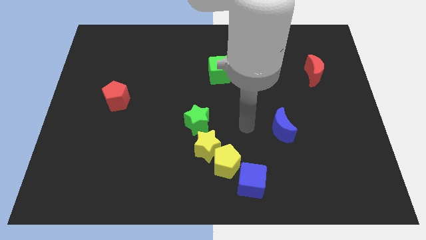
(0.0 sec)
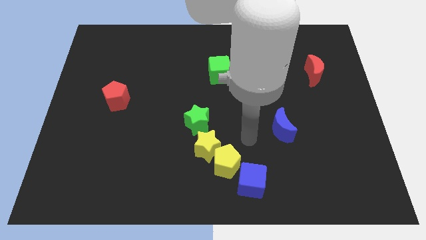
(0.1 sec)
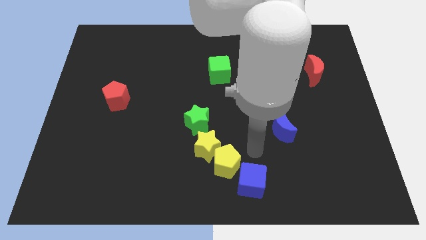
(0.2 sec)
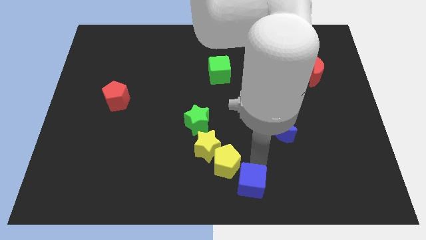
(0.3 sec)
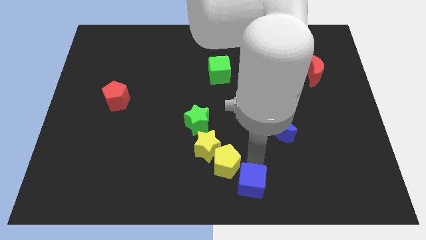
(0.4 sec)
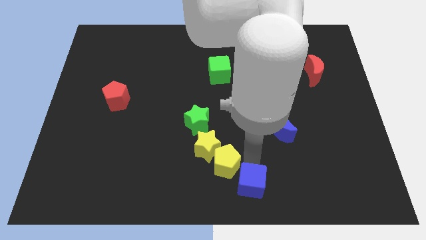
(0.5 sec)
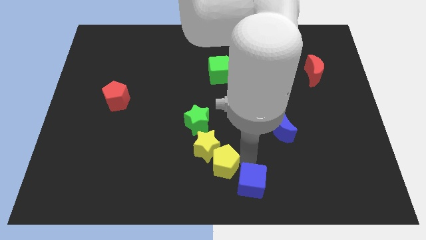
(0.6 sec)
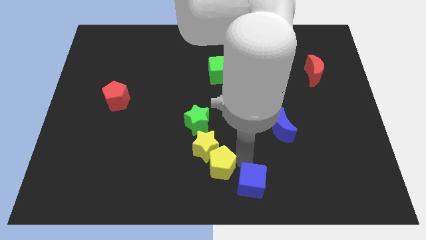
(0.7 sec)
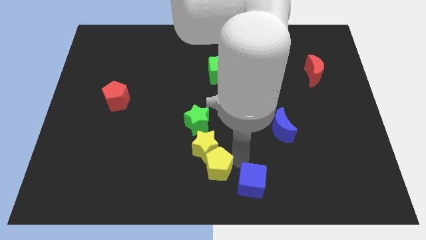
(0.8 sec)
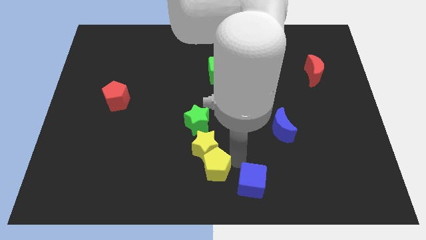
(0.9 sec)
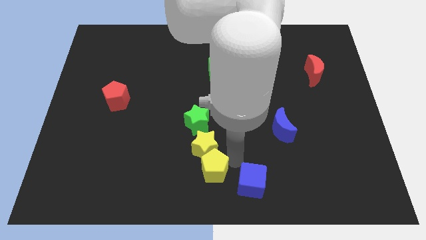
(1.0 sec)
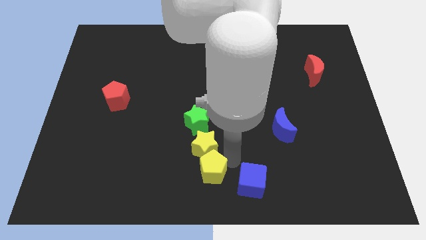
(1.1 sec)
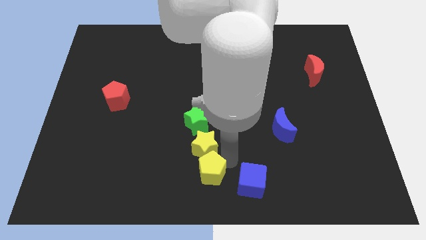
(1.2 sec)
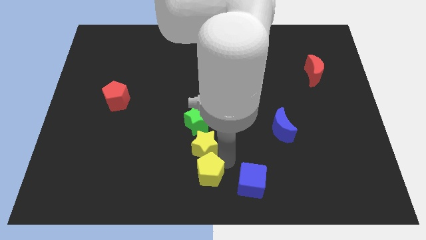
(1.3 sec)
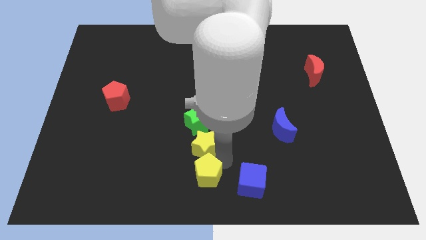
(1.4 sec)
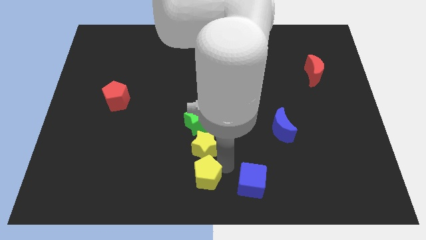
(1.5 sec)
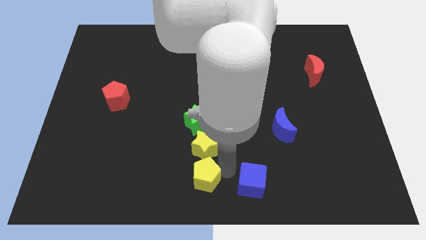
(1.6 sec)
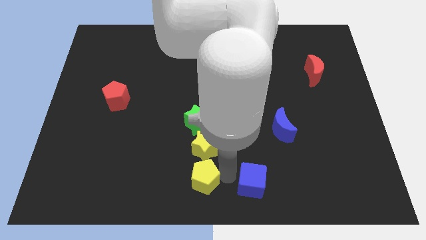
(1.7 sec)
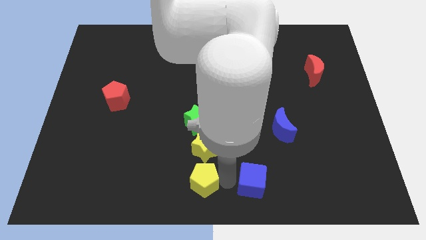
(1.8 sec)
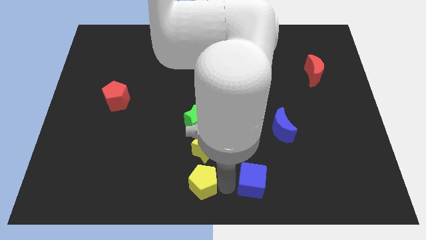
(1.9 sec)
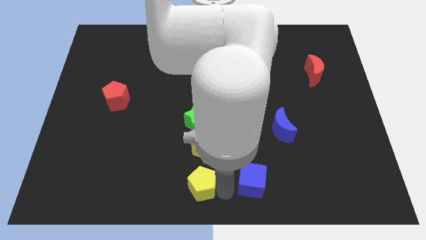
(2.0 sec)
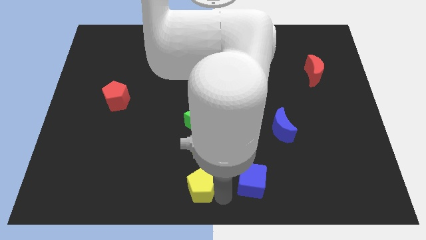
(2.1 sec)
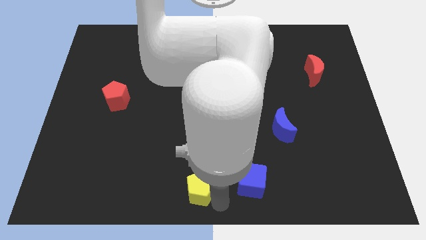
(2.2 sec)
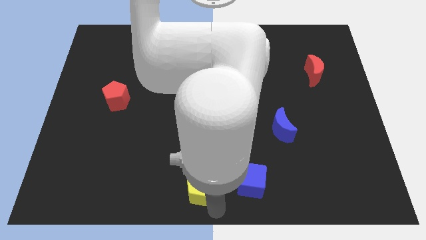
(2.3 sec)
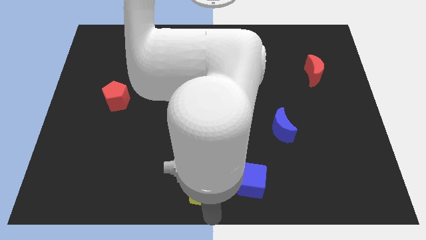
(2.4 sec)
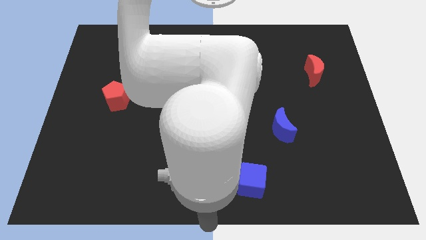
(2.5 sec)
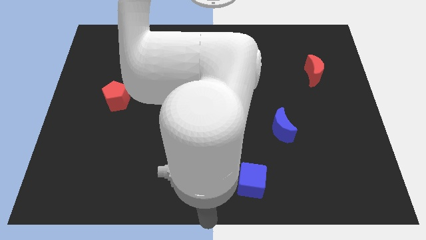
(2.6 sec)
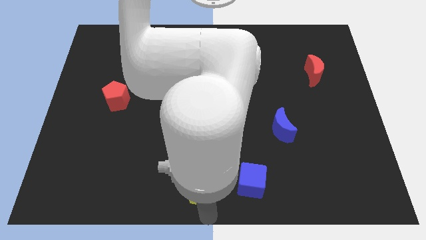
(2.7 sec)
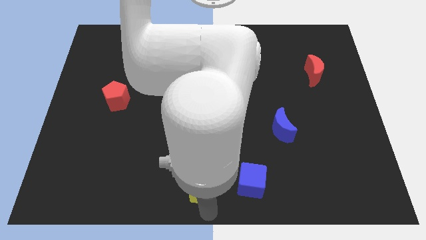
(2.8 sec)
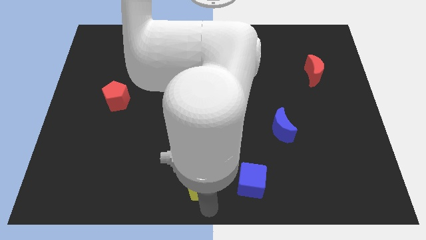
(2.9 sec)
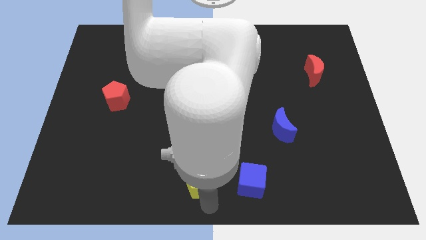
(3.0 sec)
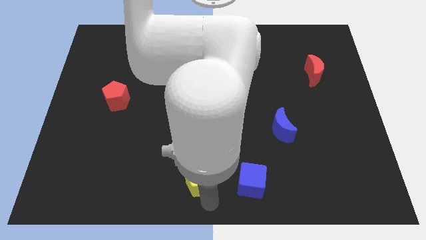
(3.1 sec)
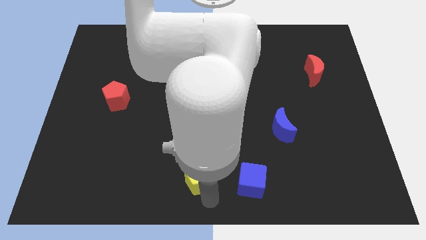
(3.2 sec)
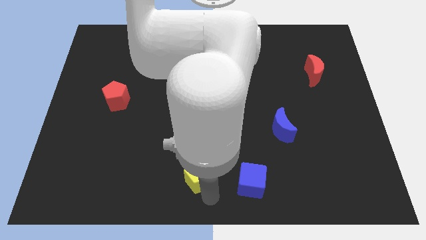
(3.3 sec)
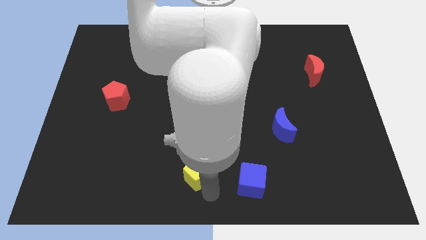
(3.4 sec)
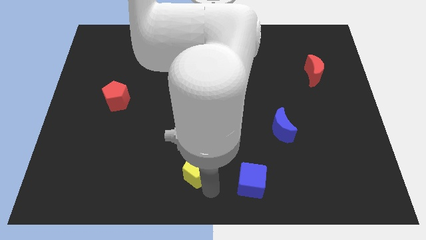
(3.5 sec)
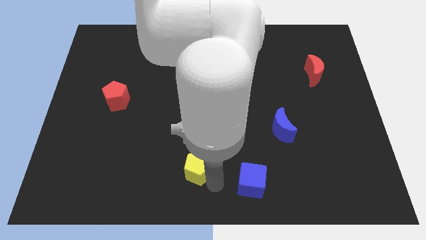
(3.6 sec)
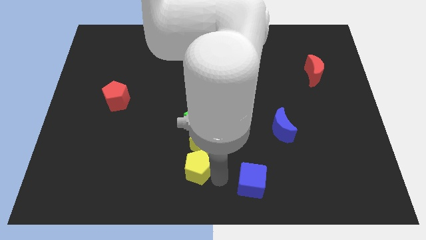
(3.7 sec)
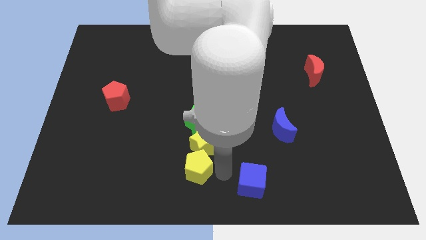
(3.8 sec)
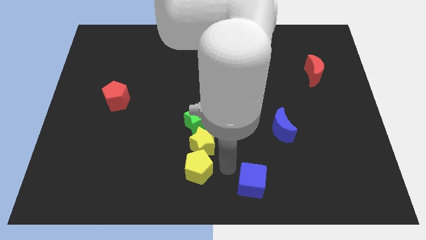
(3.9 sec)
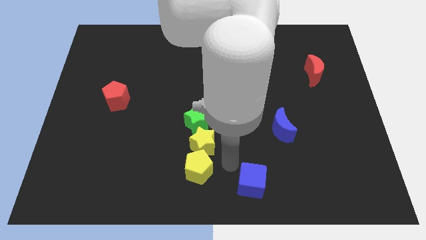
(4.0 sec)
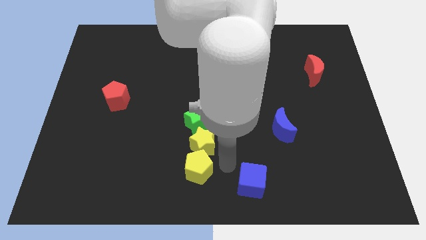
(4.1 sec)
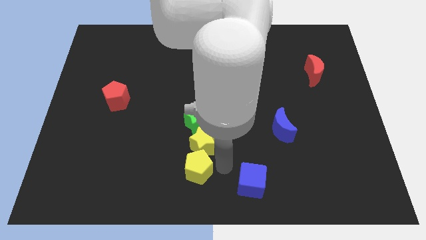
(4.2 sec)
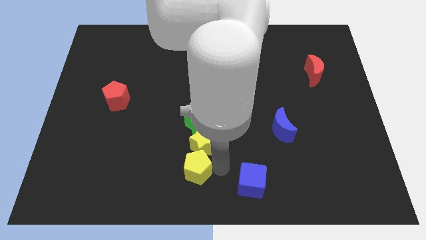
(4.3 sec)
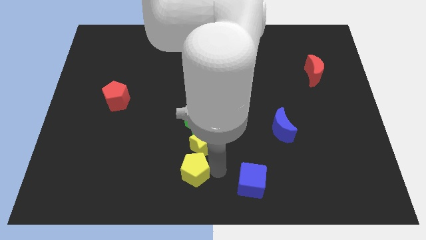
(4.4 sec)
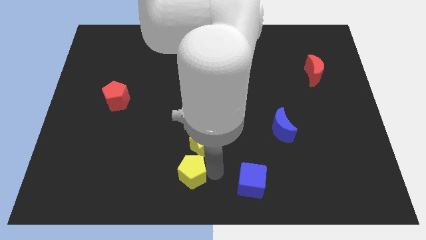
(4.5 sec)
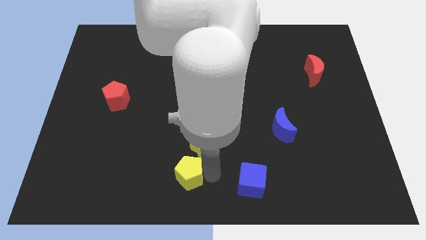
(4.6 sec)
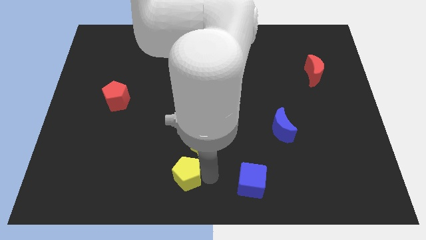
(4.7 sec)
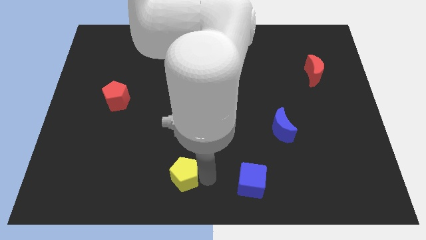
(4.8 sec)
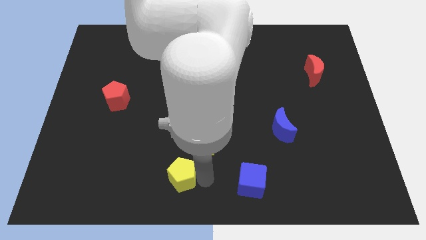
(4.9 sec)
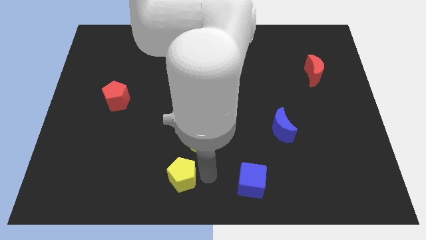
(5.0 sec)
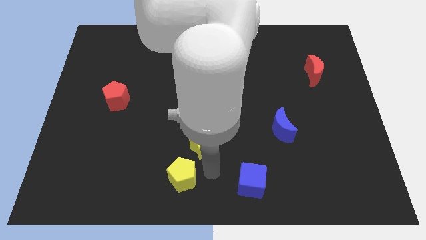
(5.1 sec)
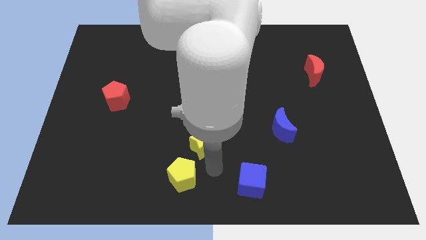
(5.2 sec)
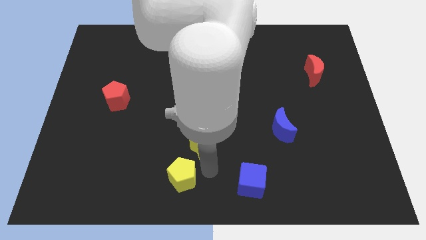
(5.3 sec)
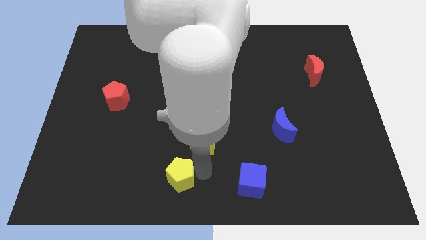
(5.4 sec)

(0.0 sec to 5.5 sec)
separate the yellow pentagon from the yellow star and blue cube

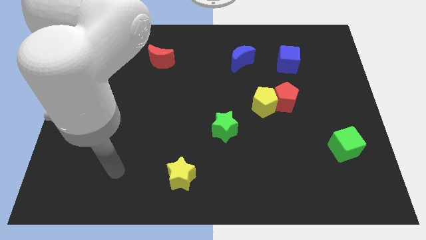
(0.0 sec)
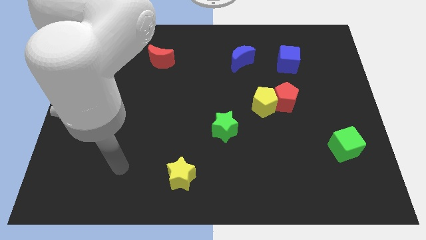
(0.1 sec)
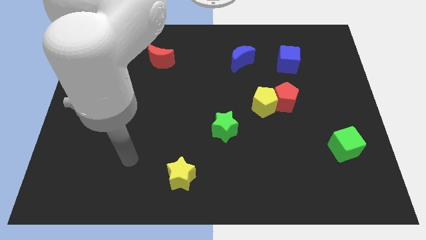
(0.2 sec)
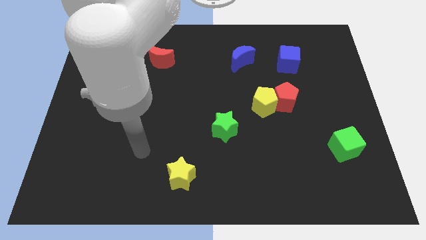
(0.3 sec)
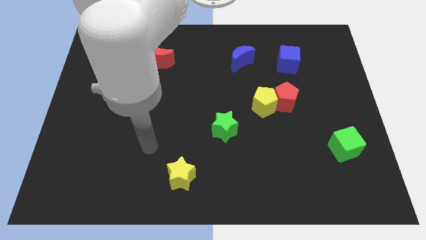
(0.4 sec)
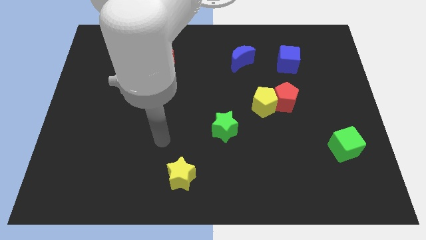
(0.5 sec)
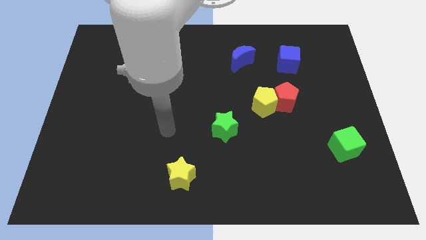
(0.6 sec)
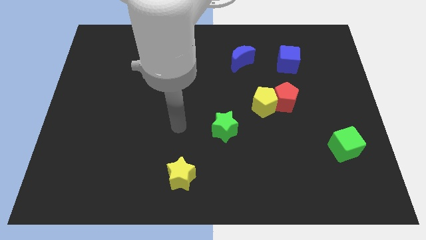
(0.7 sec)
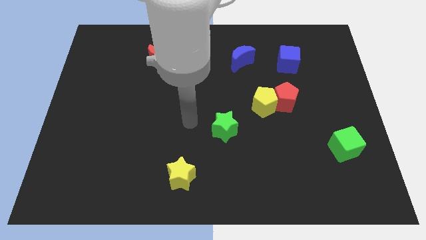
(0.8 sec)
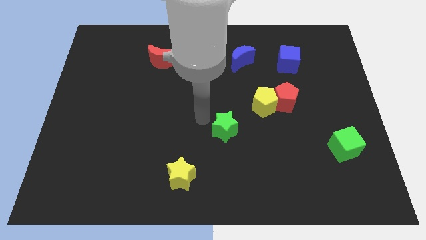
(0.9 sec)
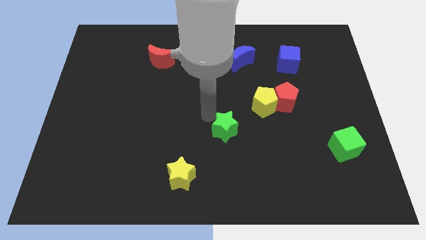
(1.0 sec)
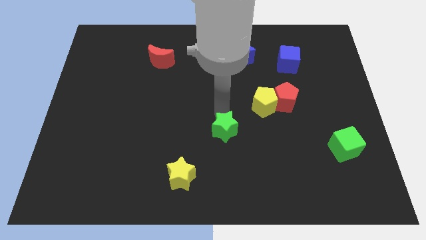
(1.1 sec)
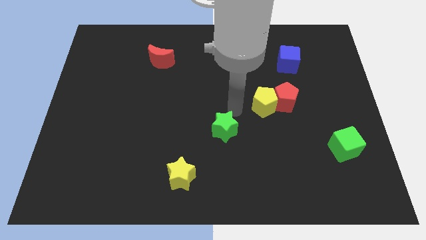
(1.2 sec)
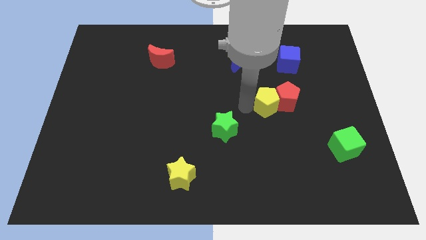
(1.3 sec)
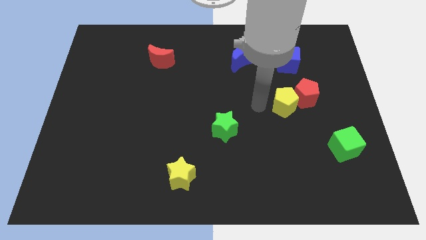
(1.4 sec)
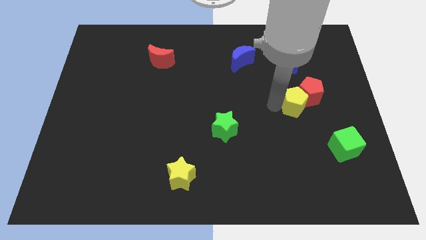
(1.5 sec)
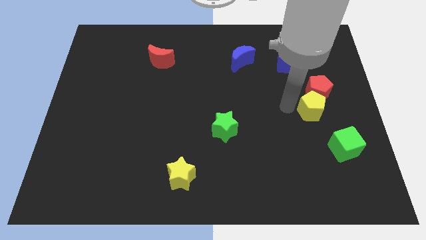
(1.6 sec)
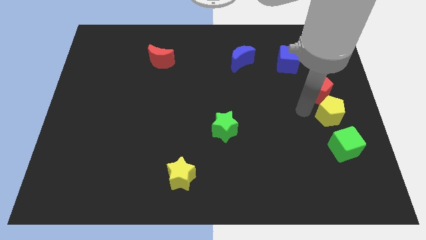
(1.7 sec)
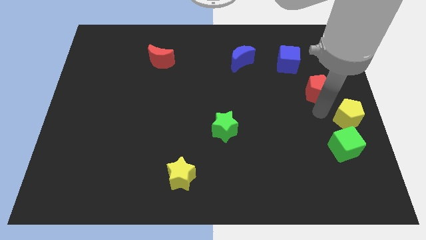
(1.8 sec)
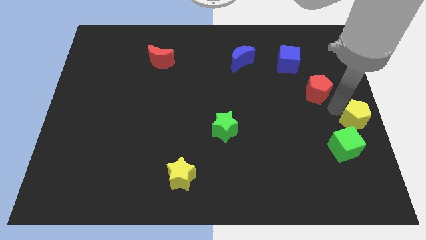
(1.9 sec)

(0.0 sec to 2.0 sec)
move the red pentagon away from the yellow pentagon

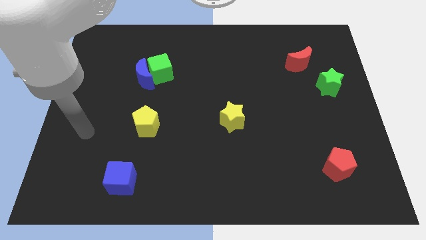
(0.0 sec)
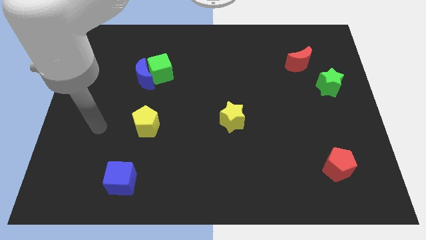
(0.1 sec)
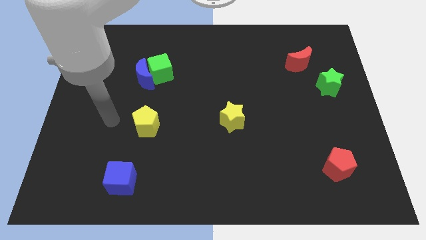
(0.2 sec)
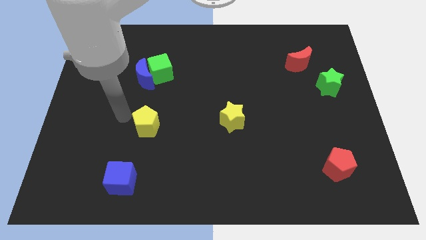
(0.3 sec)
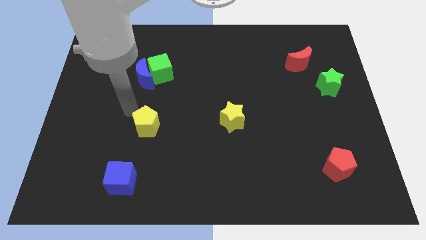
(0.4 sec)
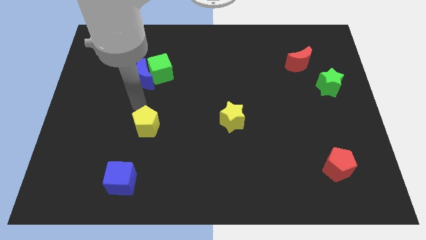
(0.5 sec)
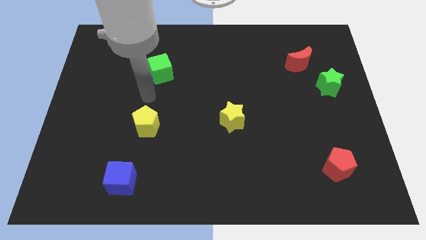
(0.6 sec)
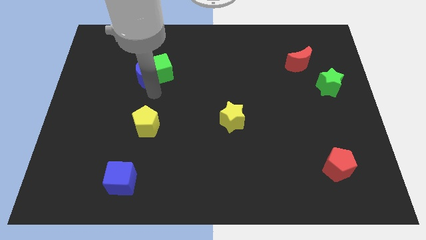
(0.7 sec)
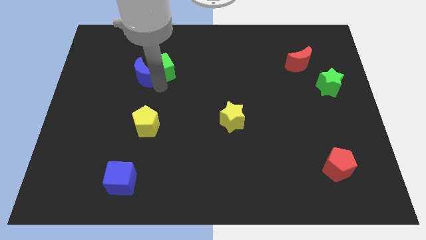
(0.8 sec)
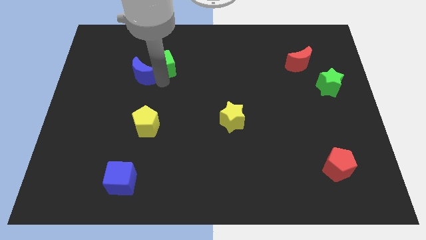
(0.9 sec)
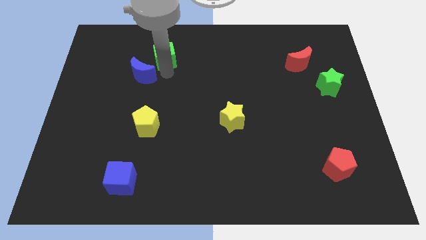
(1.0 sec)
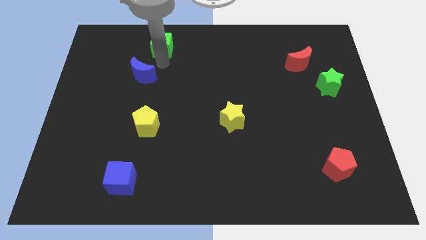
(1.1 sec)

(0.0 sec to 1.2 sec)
separate the blue moon from the green cube

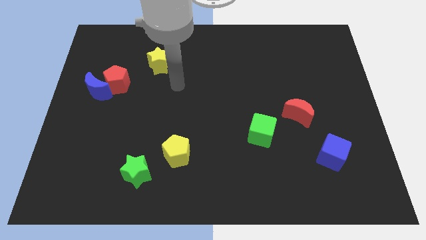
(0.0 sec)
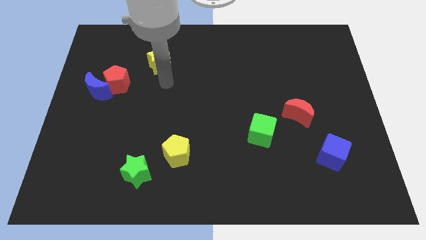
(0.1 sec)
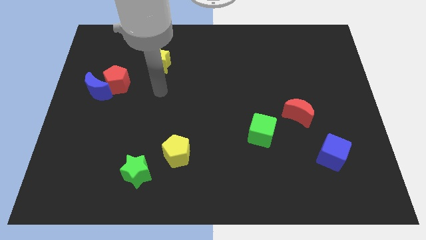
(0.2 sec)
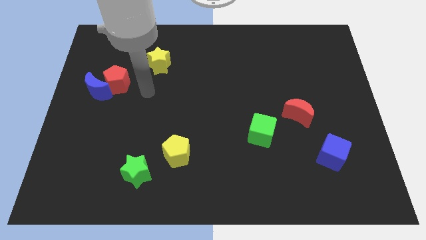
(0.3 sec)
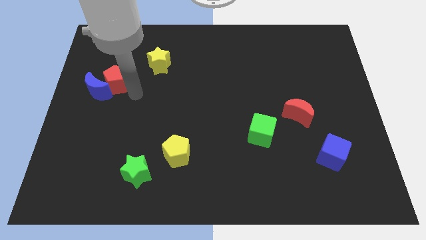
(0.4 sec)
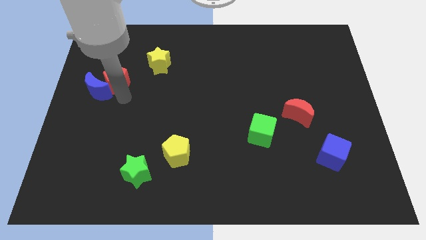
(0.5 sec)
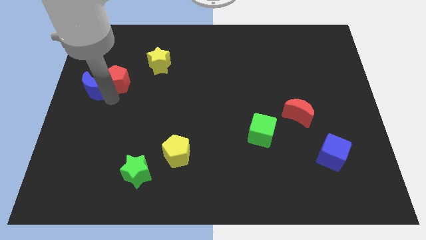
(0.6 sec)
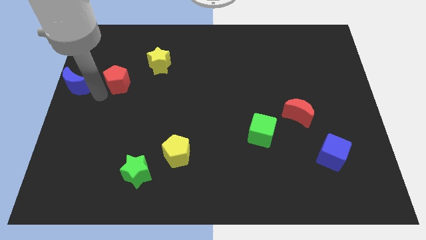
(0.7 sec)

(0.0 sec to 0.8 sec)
move the red pentagon away from the blue moon
